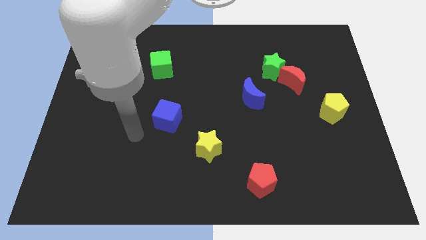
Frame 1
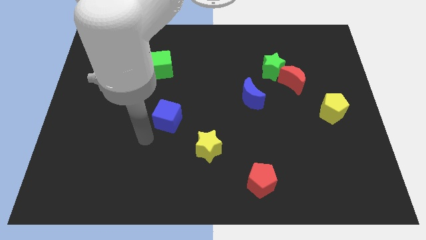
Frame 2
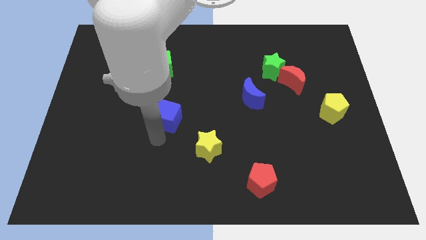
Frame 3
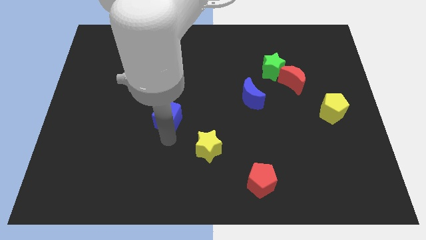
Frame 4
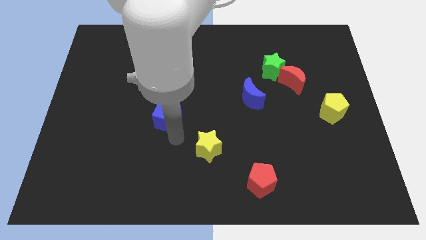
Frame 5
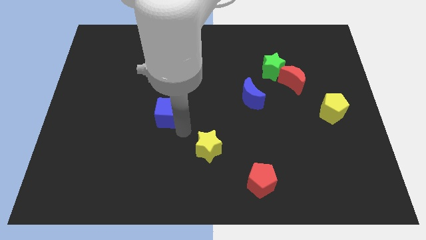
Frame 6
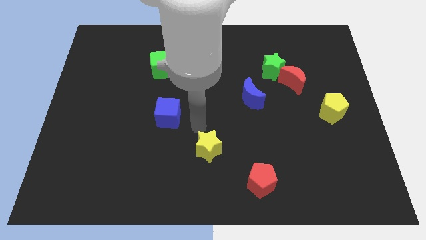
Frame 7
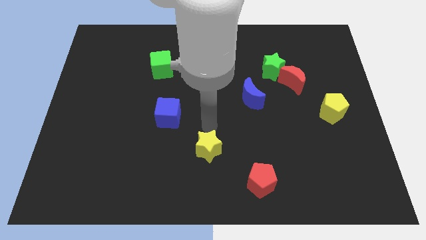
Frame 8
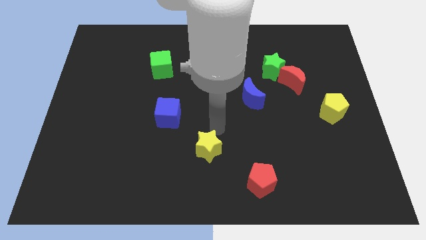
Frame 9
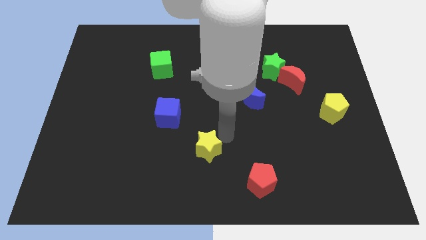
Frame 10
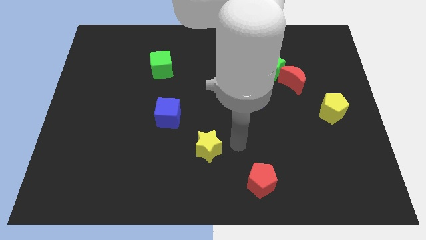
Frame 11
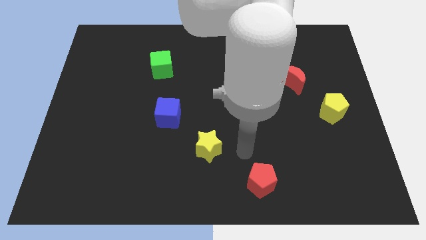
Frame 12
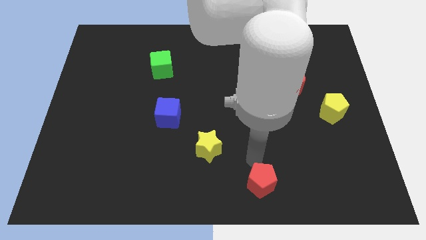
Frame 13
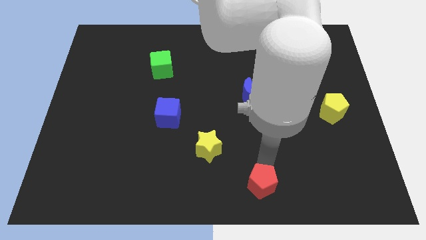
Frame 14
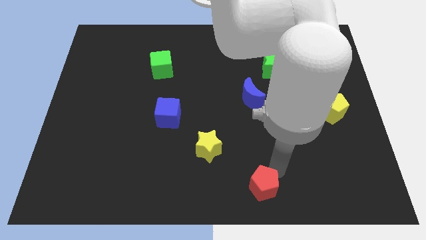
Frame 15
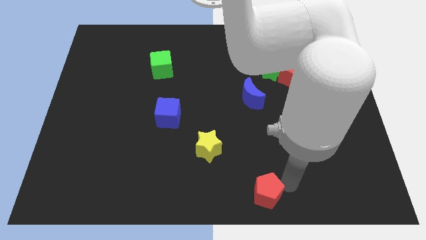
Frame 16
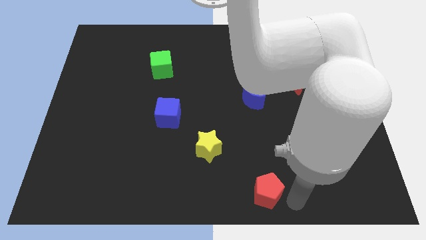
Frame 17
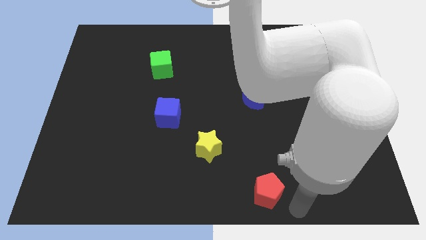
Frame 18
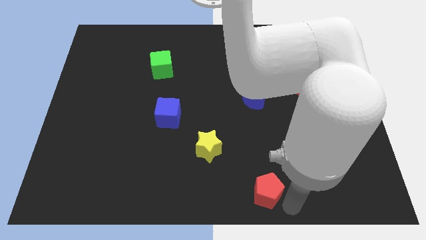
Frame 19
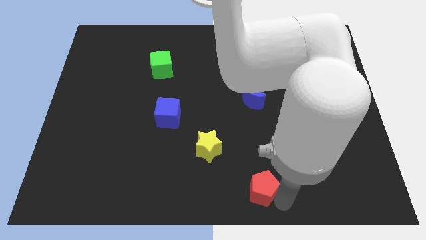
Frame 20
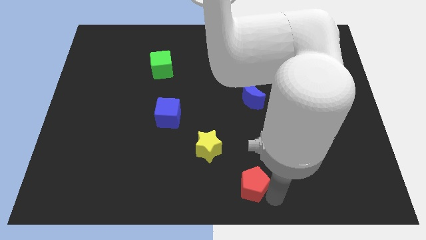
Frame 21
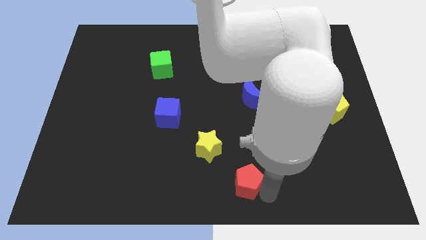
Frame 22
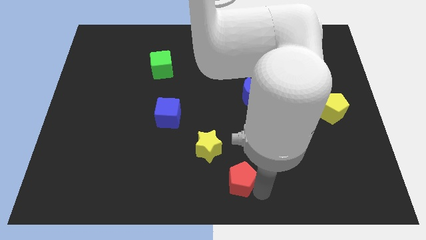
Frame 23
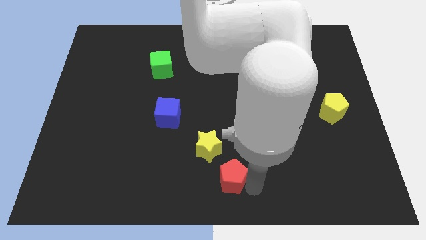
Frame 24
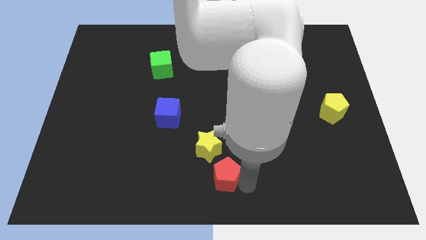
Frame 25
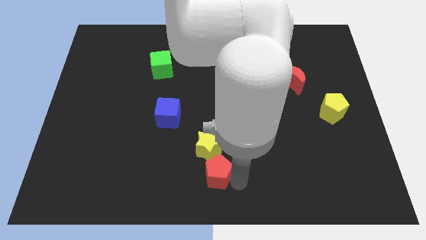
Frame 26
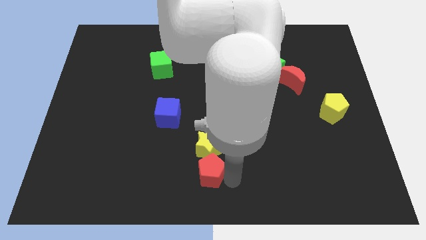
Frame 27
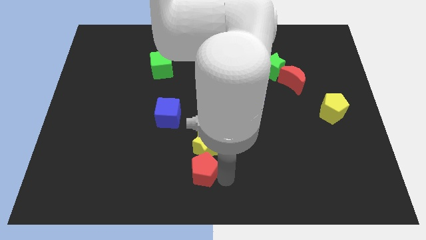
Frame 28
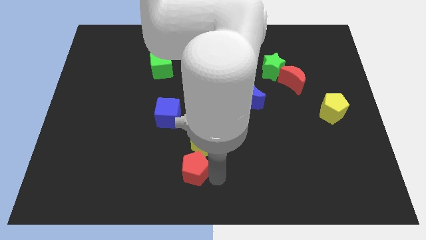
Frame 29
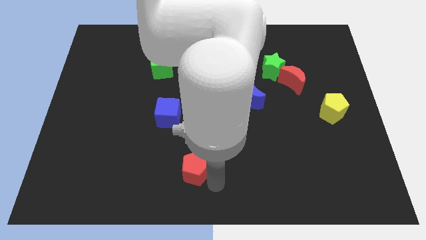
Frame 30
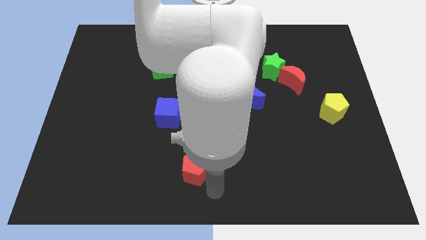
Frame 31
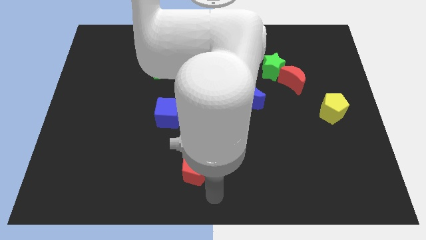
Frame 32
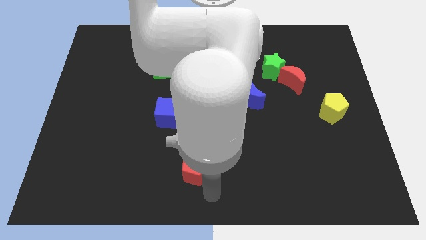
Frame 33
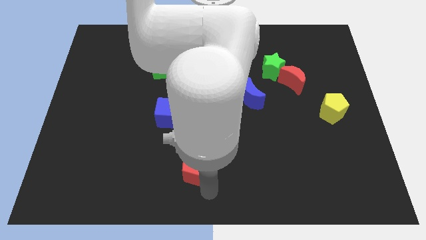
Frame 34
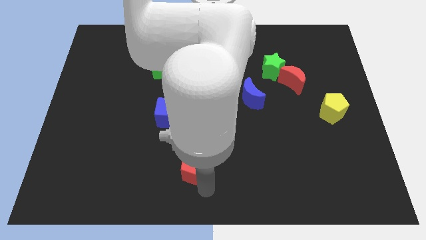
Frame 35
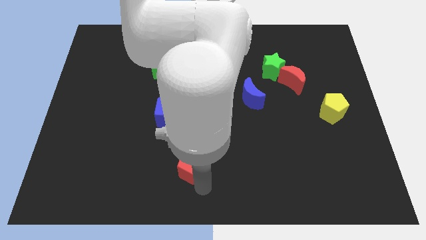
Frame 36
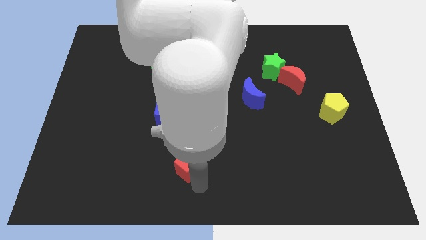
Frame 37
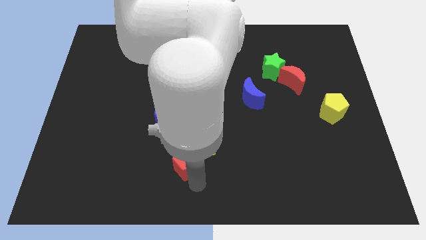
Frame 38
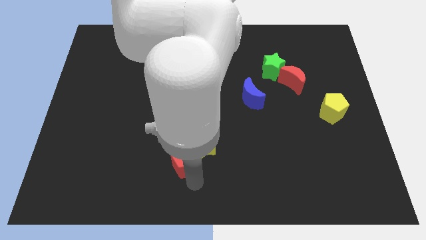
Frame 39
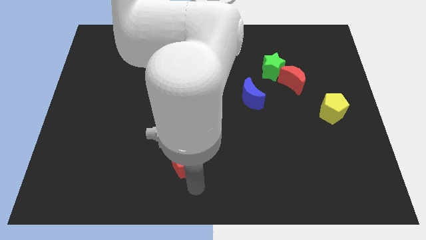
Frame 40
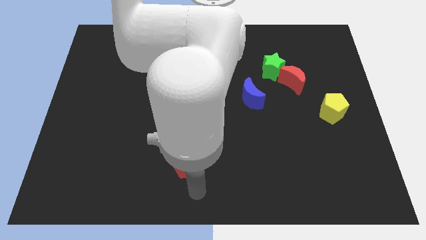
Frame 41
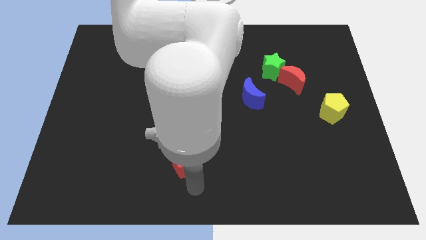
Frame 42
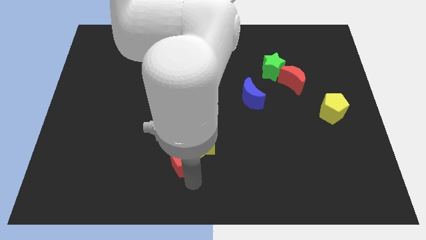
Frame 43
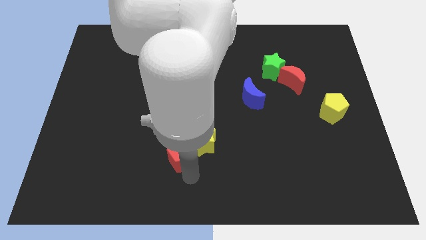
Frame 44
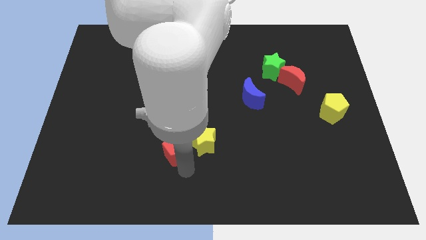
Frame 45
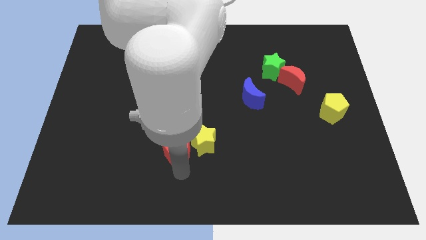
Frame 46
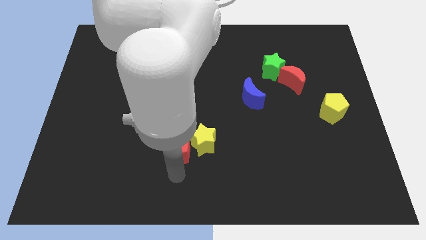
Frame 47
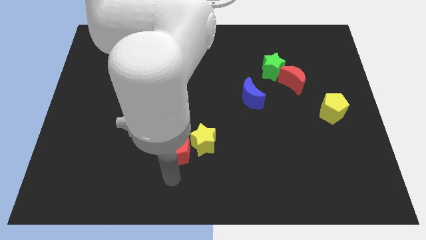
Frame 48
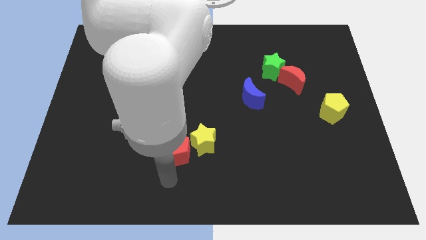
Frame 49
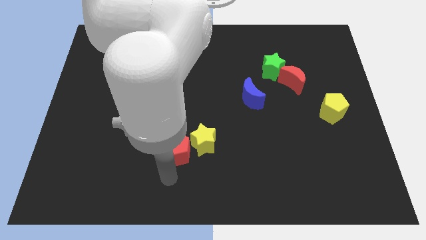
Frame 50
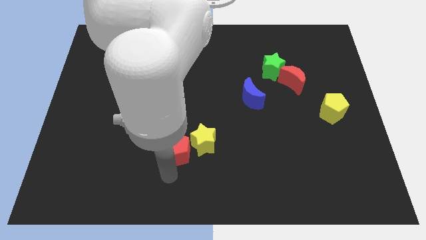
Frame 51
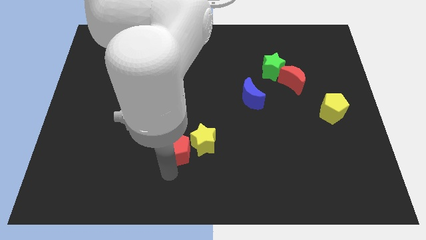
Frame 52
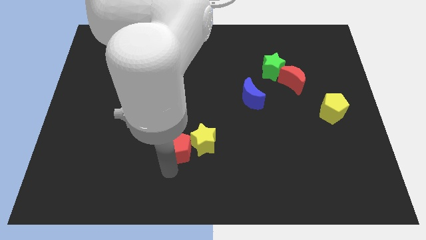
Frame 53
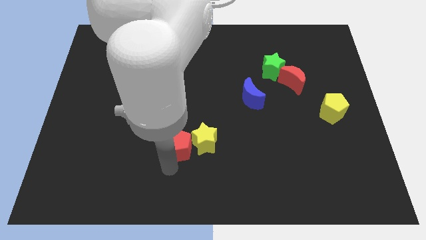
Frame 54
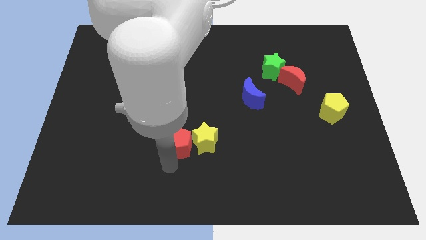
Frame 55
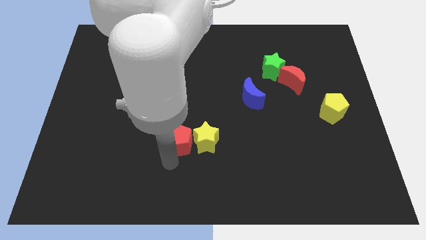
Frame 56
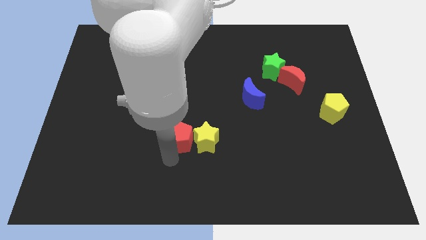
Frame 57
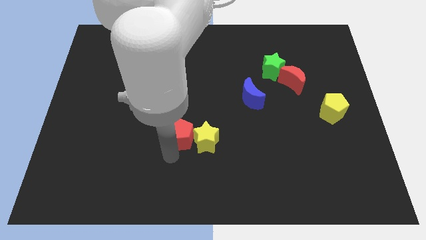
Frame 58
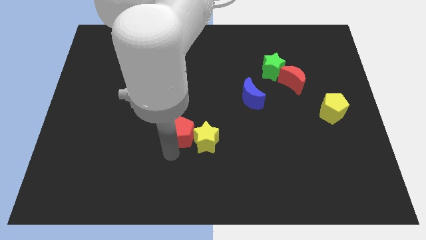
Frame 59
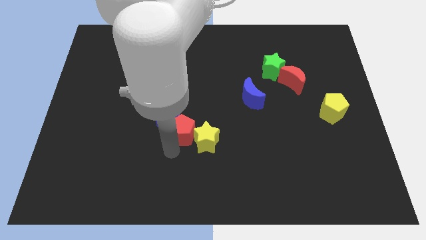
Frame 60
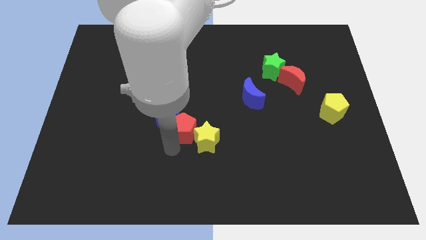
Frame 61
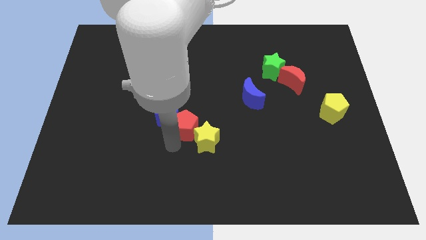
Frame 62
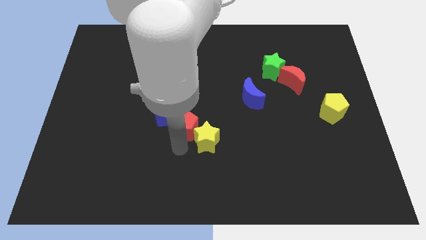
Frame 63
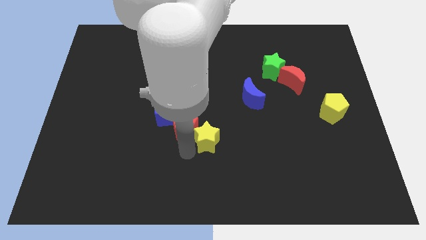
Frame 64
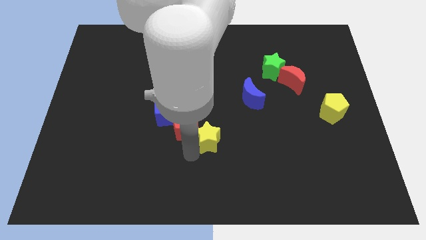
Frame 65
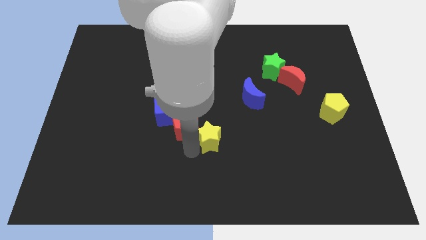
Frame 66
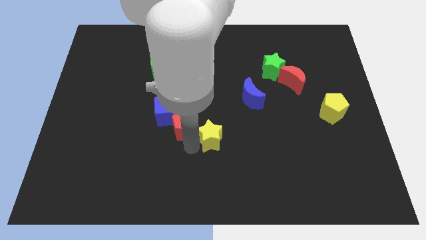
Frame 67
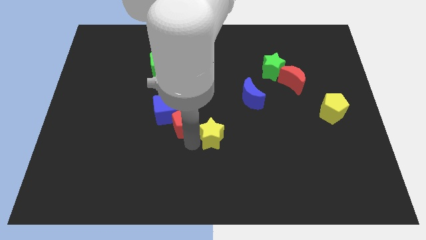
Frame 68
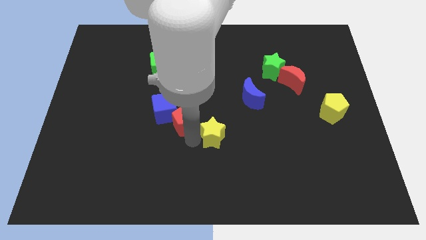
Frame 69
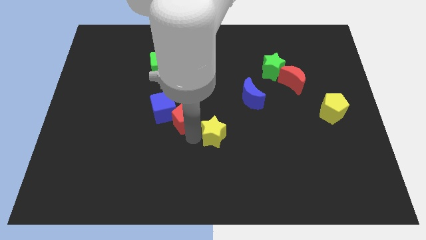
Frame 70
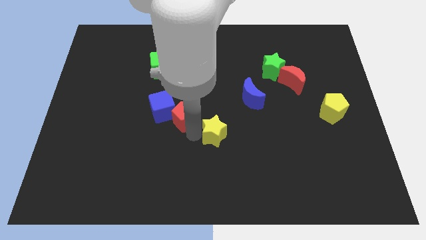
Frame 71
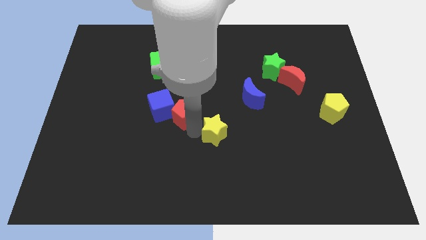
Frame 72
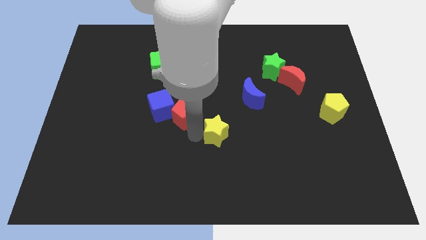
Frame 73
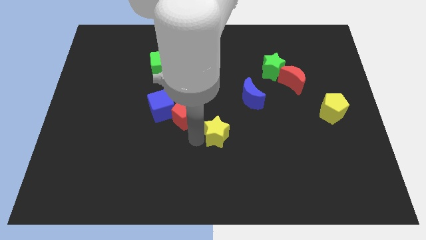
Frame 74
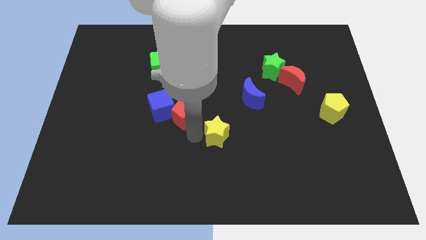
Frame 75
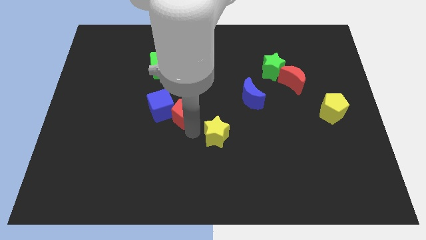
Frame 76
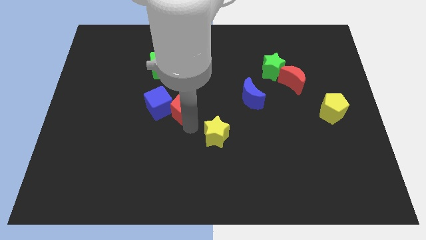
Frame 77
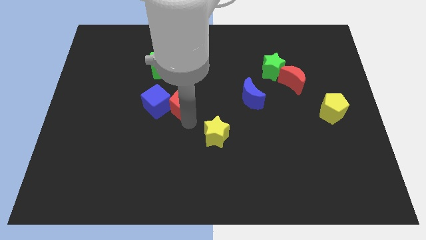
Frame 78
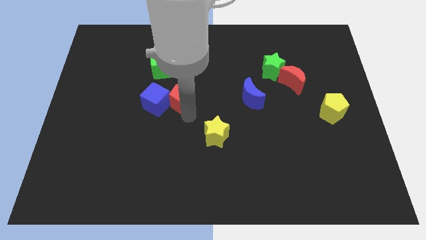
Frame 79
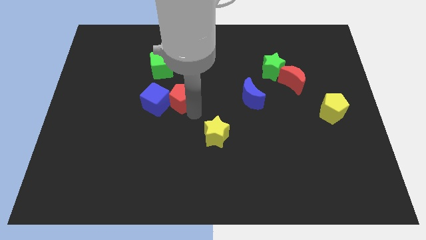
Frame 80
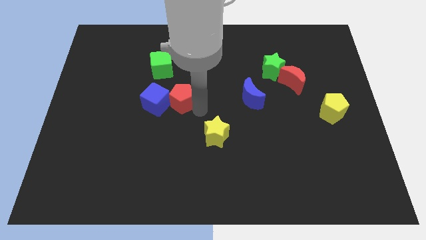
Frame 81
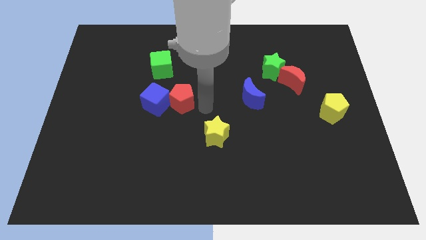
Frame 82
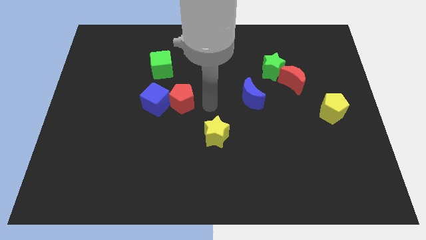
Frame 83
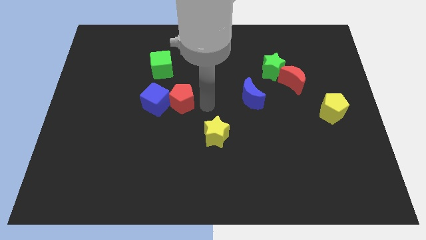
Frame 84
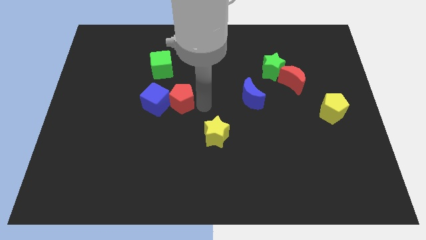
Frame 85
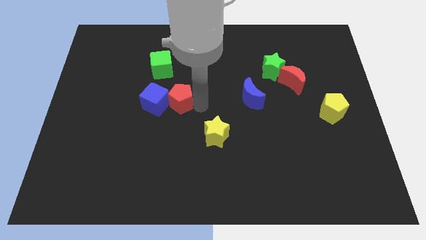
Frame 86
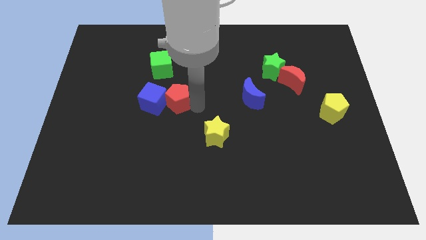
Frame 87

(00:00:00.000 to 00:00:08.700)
push the red pentagon to the bottom side of the green cube
